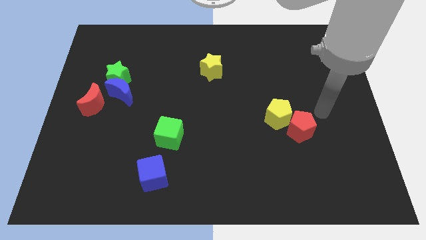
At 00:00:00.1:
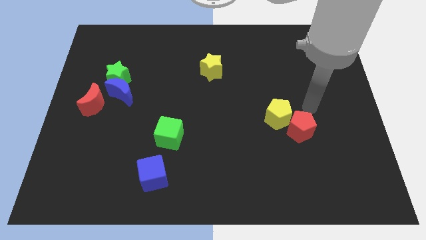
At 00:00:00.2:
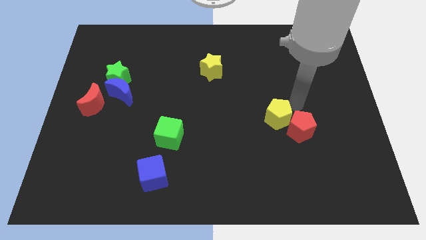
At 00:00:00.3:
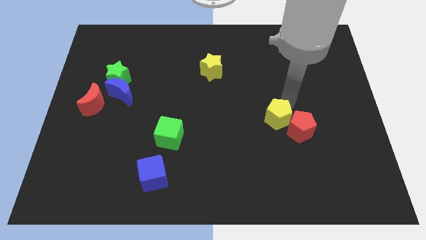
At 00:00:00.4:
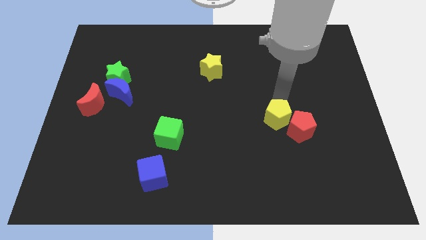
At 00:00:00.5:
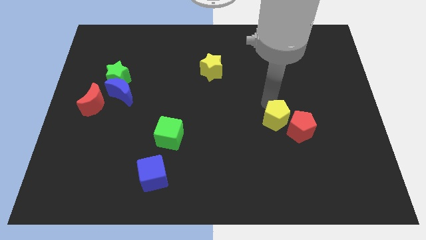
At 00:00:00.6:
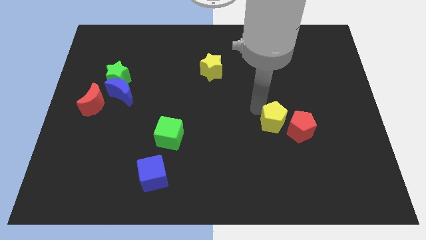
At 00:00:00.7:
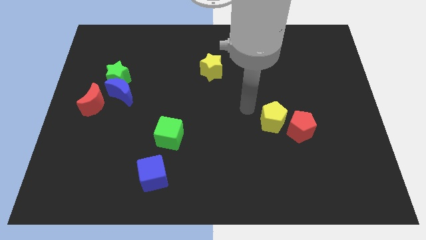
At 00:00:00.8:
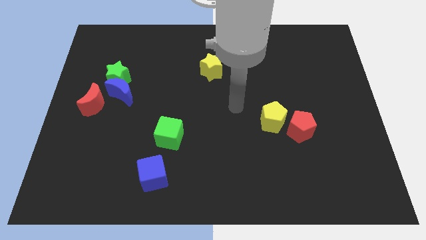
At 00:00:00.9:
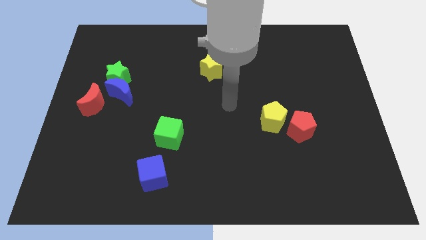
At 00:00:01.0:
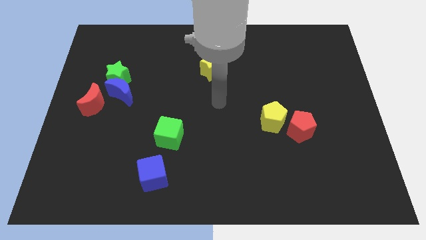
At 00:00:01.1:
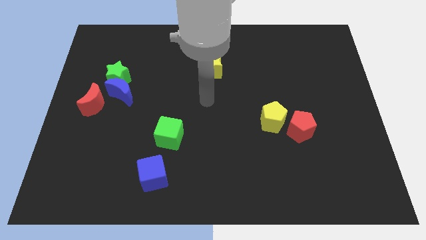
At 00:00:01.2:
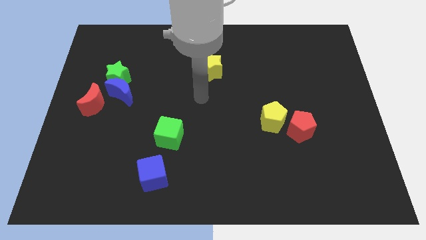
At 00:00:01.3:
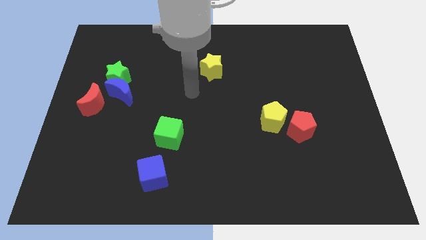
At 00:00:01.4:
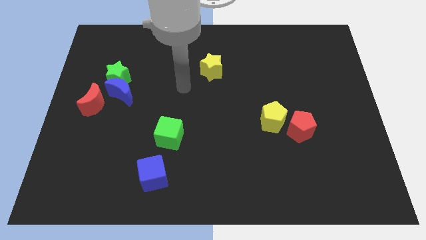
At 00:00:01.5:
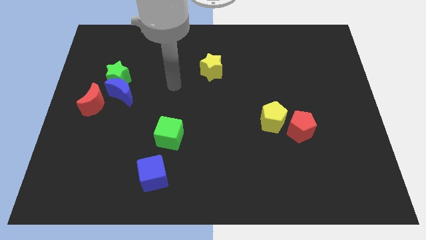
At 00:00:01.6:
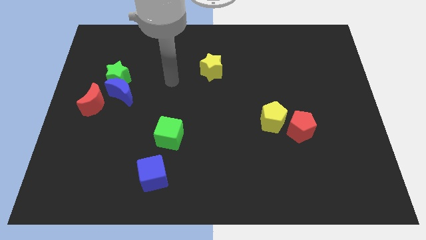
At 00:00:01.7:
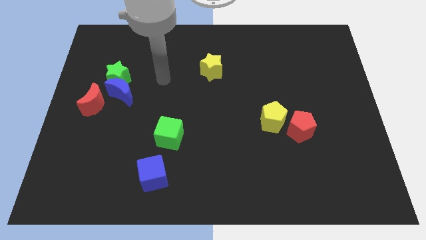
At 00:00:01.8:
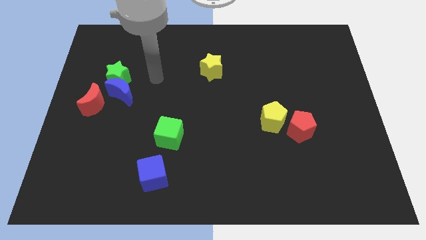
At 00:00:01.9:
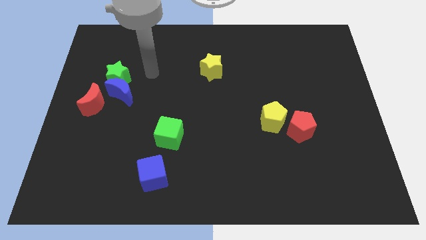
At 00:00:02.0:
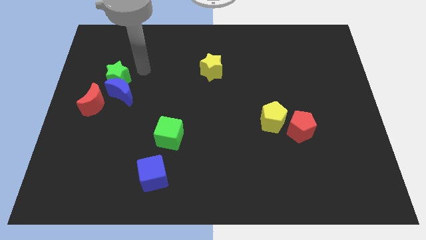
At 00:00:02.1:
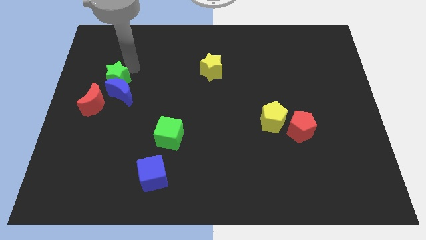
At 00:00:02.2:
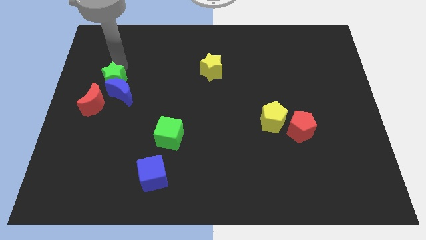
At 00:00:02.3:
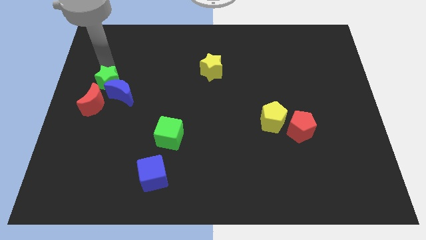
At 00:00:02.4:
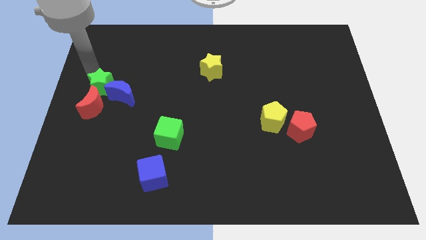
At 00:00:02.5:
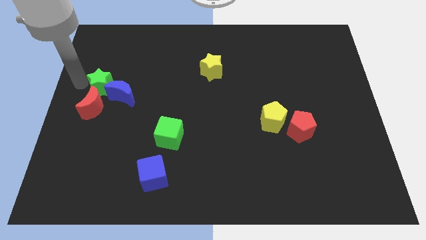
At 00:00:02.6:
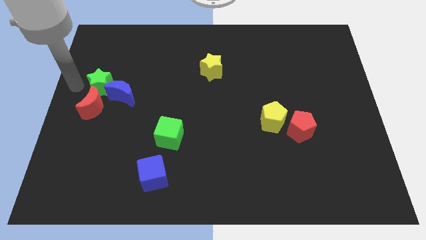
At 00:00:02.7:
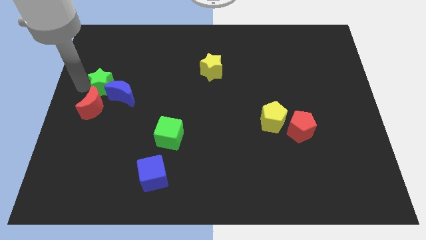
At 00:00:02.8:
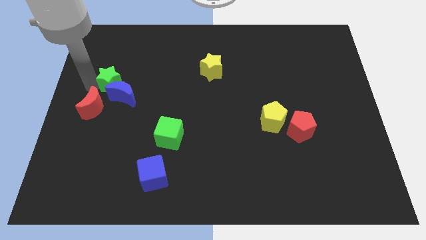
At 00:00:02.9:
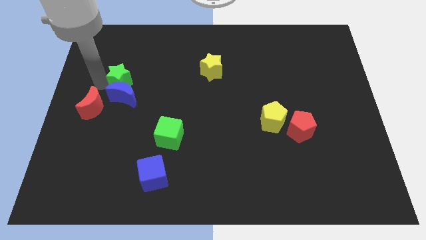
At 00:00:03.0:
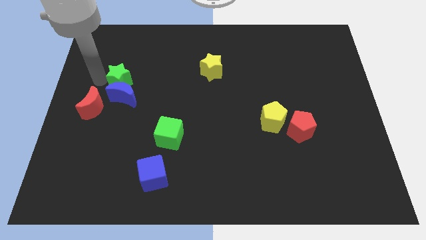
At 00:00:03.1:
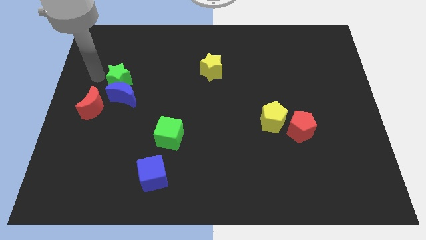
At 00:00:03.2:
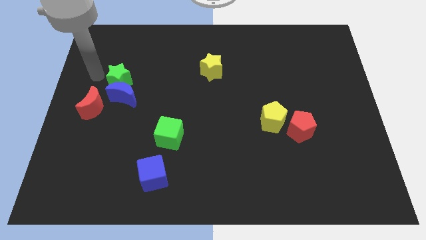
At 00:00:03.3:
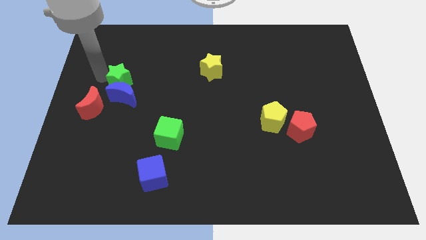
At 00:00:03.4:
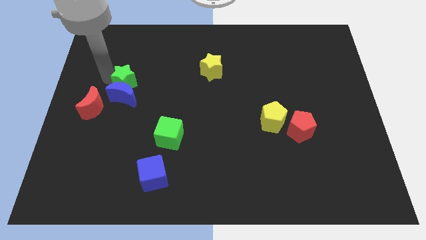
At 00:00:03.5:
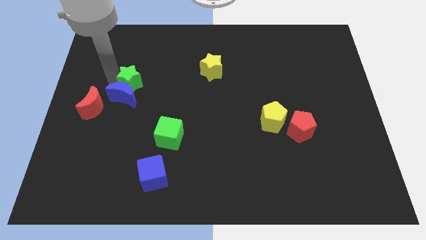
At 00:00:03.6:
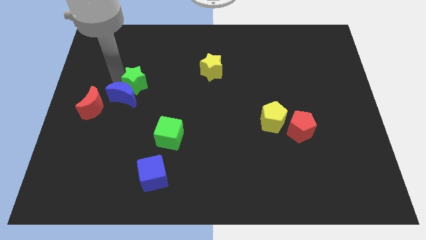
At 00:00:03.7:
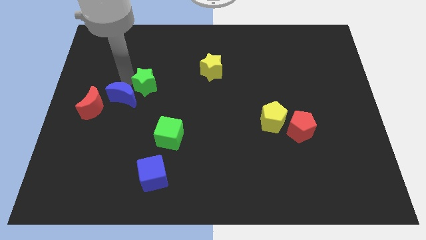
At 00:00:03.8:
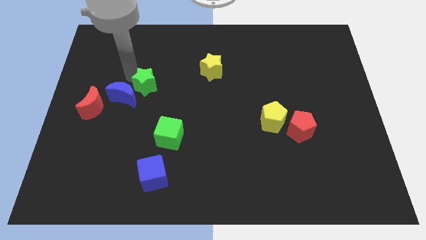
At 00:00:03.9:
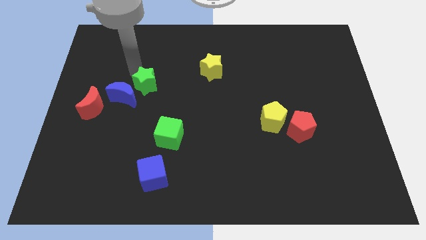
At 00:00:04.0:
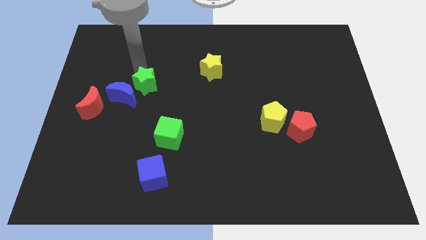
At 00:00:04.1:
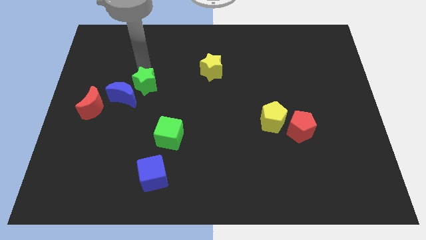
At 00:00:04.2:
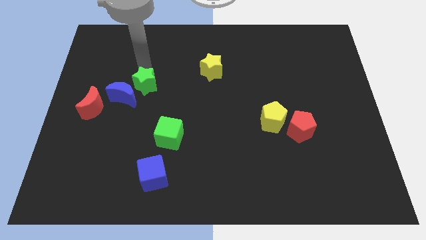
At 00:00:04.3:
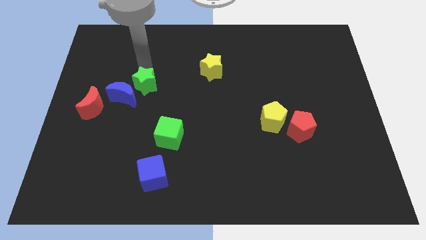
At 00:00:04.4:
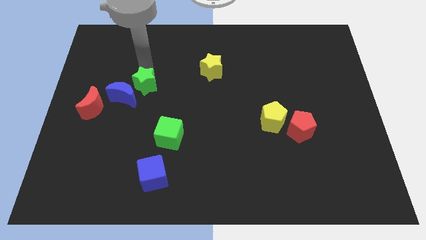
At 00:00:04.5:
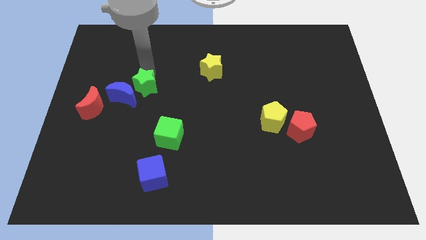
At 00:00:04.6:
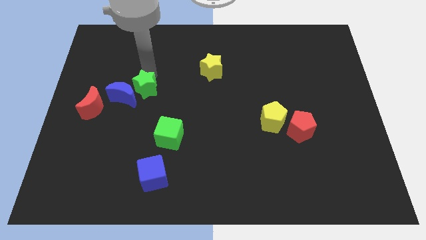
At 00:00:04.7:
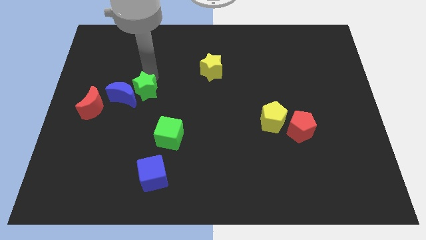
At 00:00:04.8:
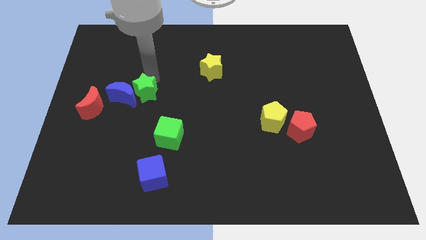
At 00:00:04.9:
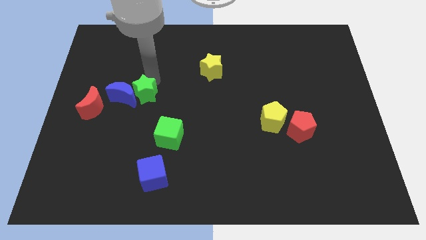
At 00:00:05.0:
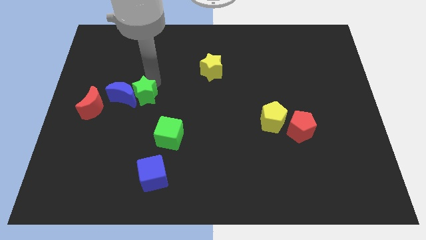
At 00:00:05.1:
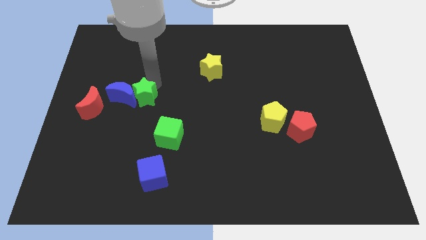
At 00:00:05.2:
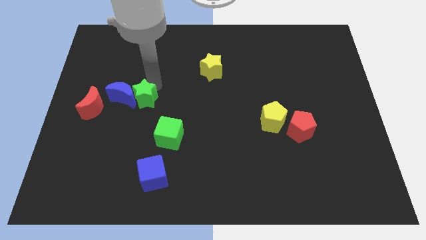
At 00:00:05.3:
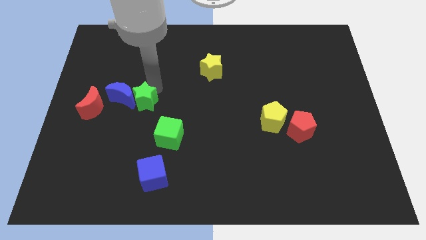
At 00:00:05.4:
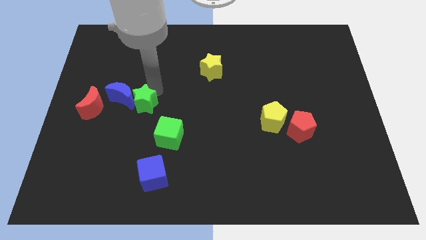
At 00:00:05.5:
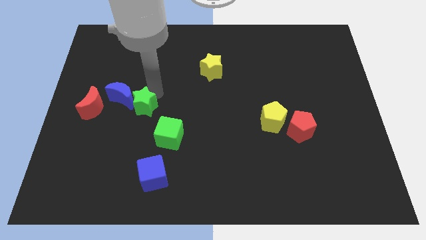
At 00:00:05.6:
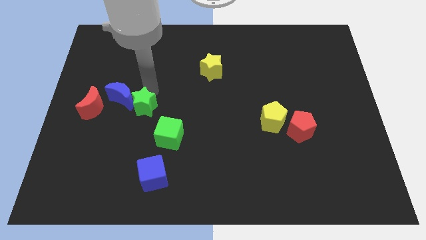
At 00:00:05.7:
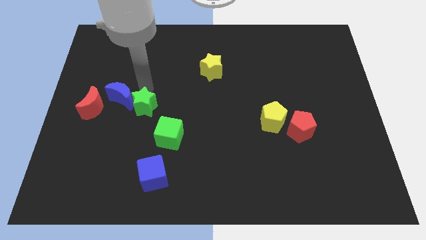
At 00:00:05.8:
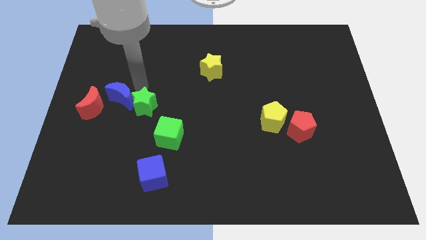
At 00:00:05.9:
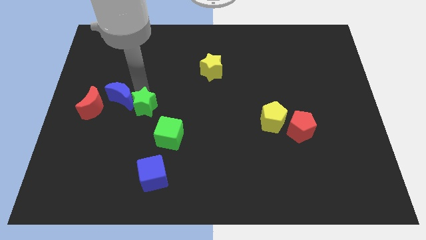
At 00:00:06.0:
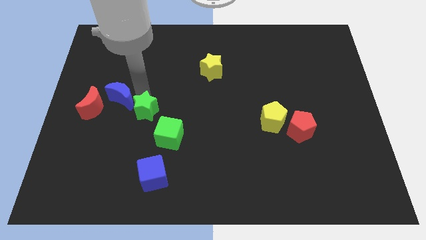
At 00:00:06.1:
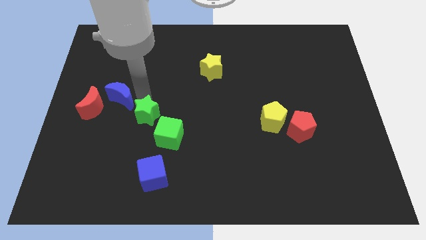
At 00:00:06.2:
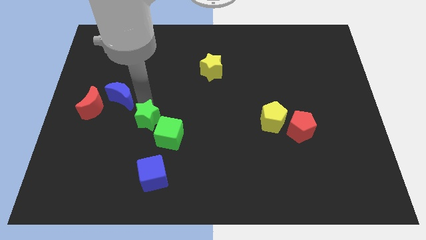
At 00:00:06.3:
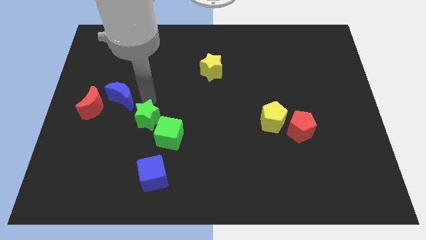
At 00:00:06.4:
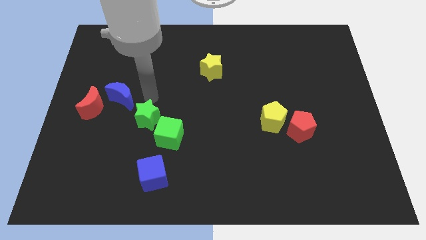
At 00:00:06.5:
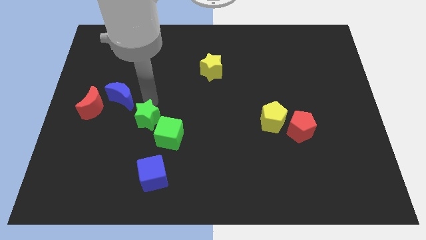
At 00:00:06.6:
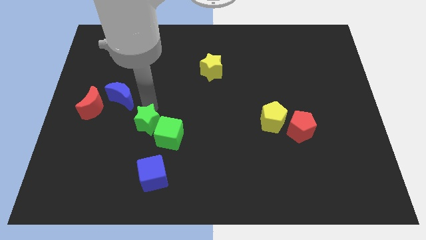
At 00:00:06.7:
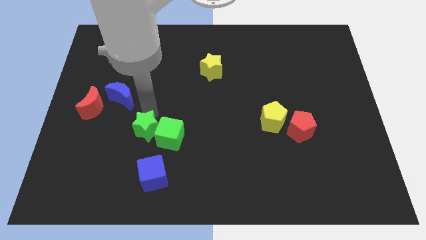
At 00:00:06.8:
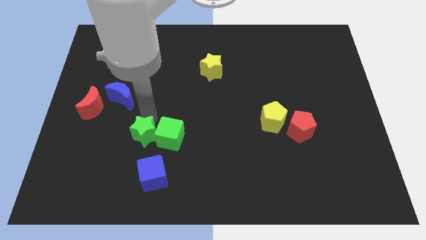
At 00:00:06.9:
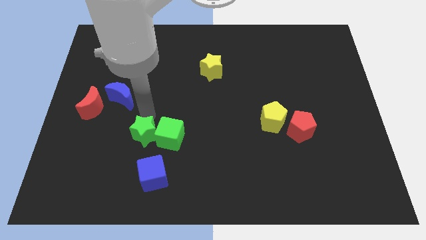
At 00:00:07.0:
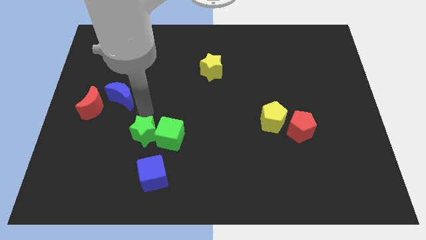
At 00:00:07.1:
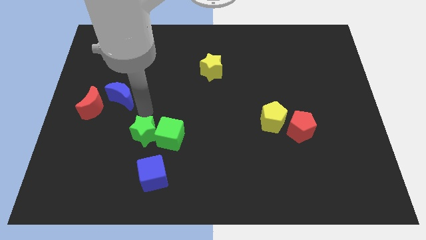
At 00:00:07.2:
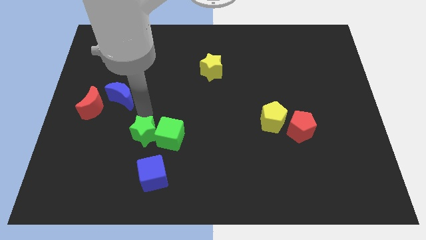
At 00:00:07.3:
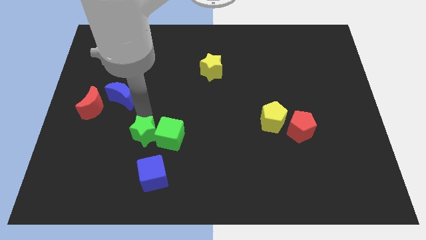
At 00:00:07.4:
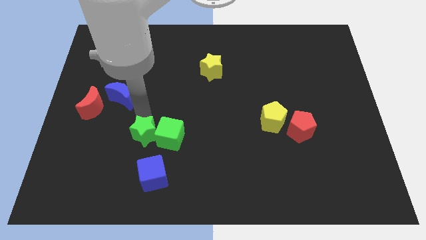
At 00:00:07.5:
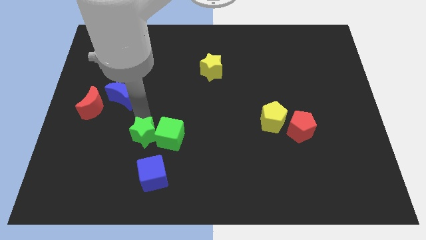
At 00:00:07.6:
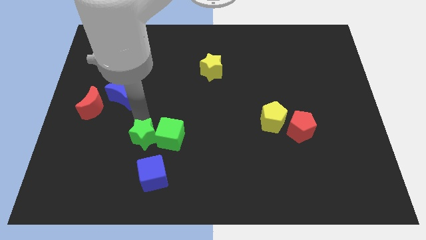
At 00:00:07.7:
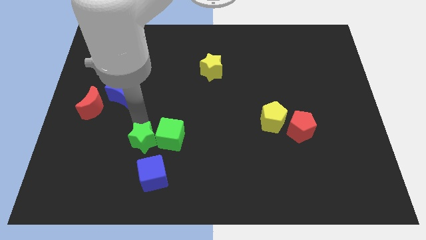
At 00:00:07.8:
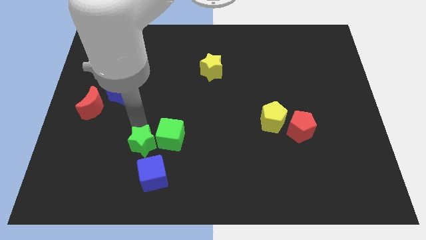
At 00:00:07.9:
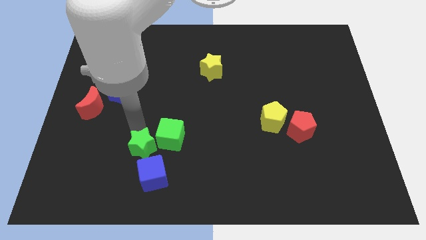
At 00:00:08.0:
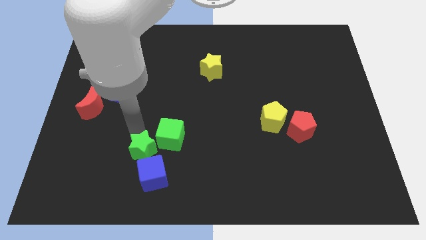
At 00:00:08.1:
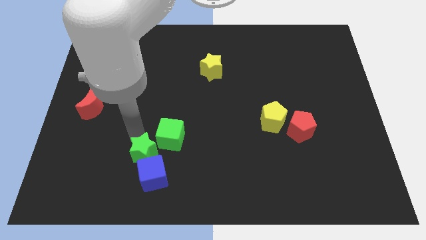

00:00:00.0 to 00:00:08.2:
push the green star next to the blue cube

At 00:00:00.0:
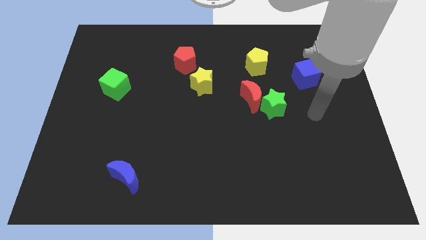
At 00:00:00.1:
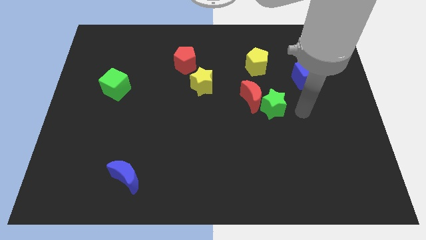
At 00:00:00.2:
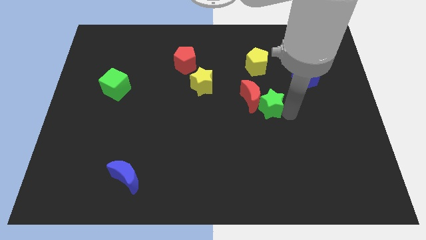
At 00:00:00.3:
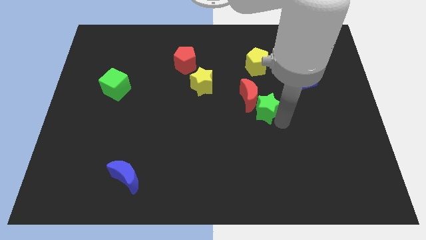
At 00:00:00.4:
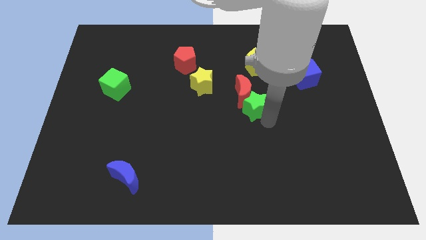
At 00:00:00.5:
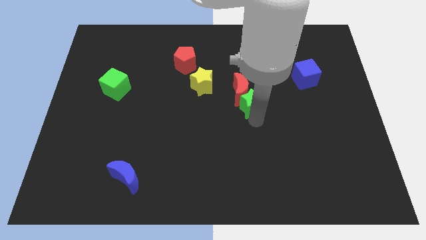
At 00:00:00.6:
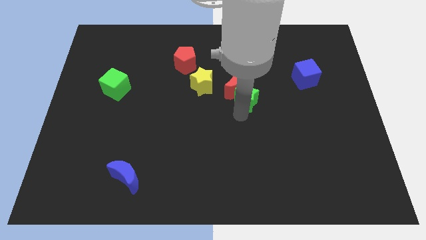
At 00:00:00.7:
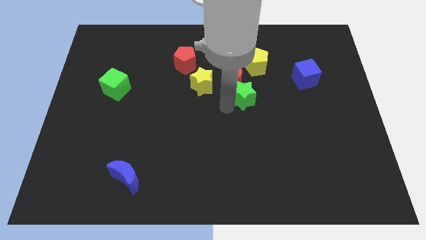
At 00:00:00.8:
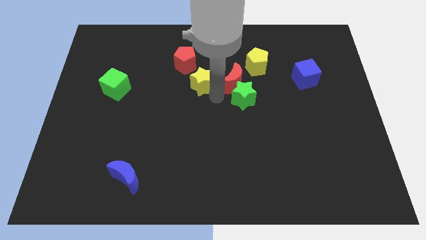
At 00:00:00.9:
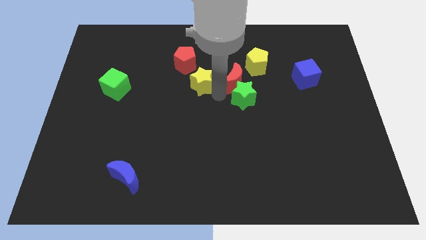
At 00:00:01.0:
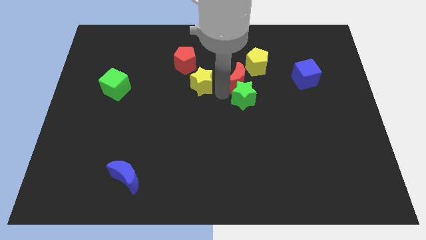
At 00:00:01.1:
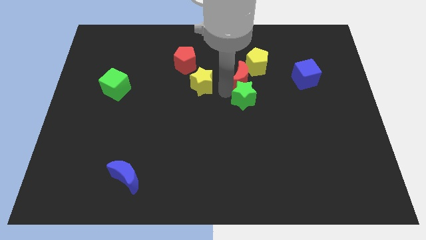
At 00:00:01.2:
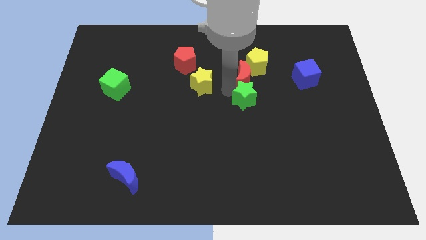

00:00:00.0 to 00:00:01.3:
slide the red moon next to the yellow pentagon
